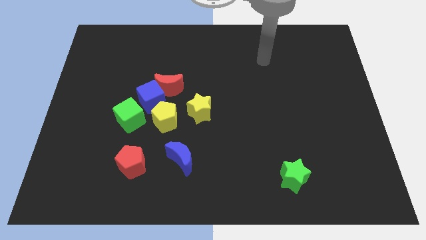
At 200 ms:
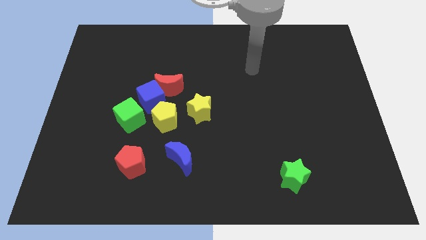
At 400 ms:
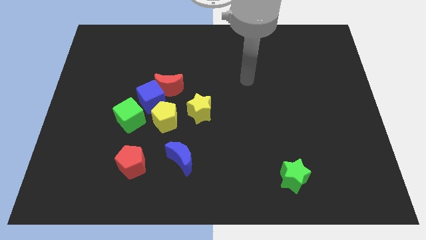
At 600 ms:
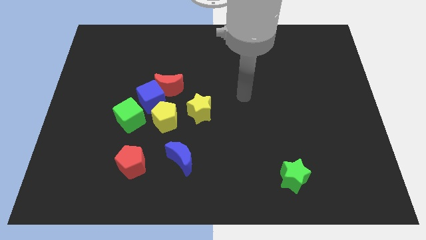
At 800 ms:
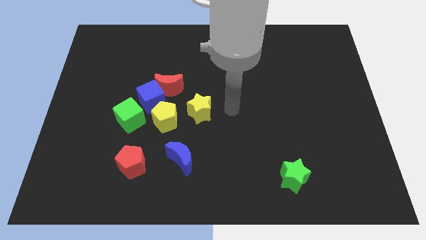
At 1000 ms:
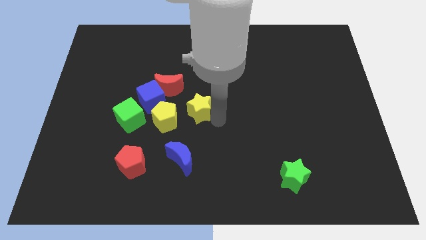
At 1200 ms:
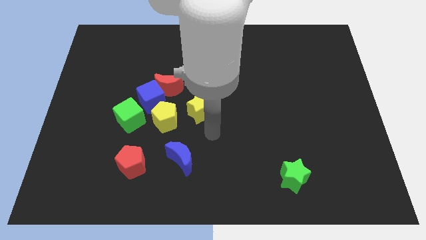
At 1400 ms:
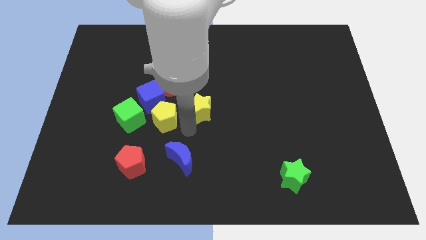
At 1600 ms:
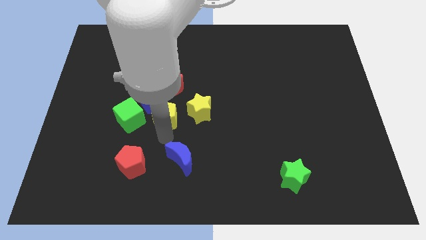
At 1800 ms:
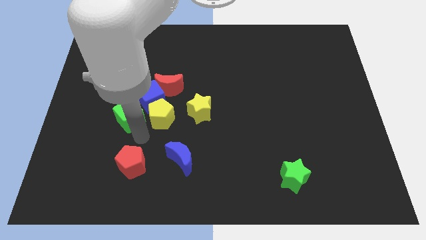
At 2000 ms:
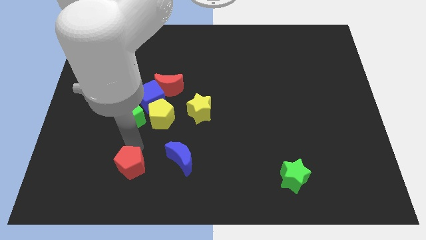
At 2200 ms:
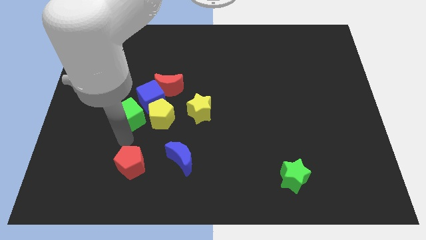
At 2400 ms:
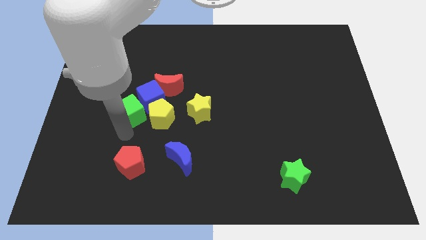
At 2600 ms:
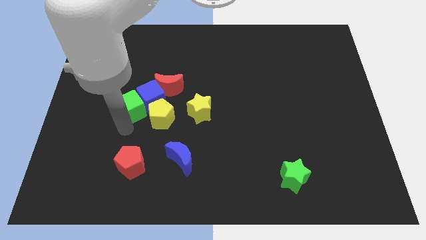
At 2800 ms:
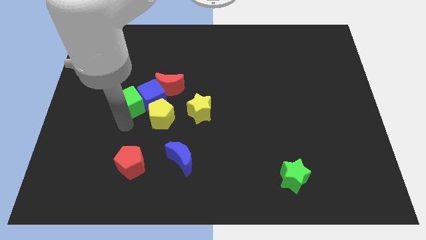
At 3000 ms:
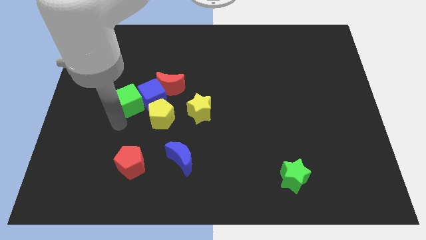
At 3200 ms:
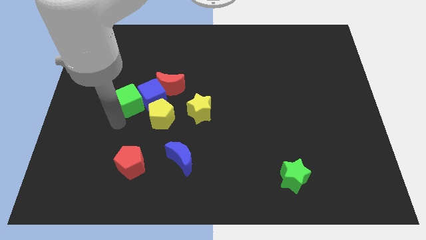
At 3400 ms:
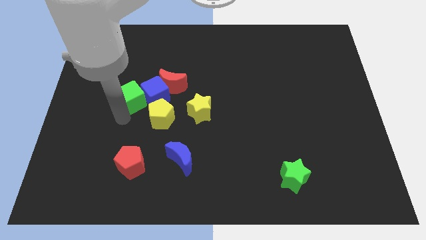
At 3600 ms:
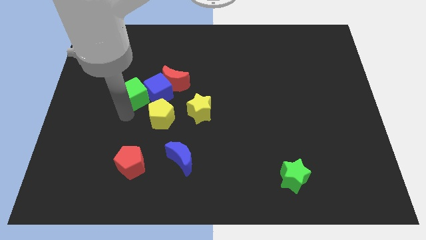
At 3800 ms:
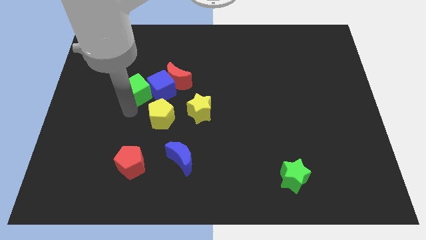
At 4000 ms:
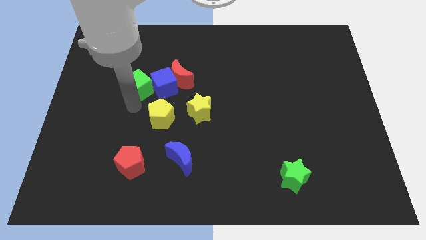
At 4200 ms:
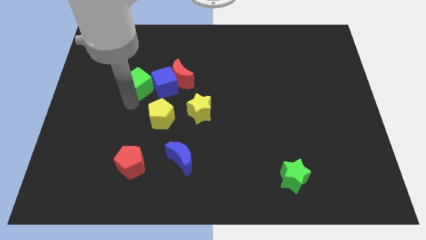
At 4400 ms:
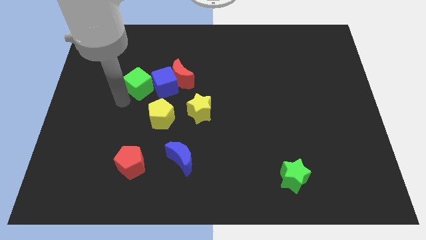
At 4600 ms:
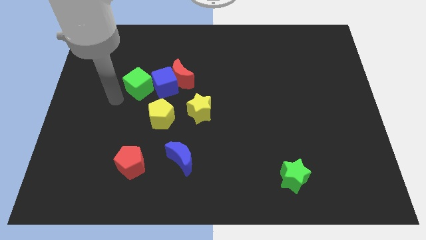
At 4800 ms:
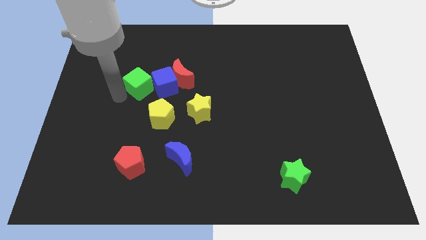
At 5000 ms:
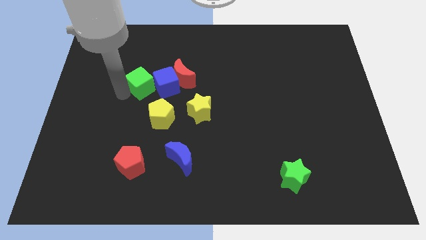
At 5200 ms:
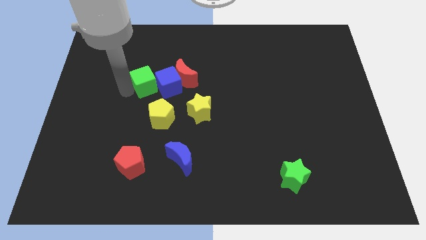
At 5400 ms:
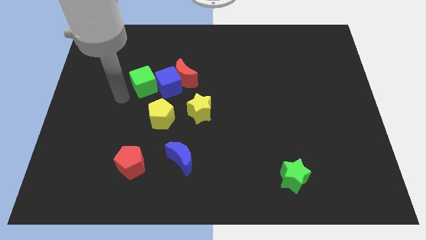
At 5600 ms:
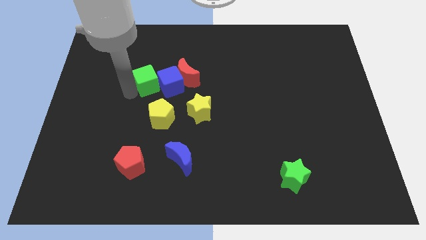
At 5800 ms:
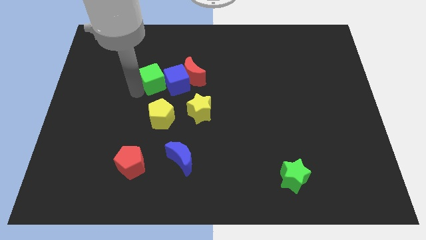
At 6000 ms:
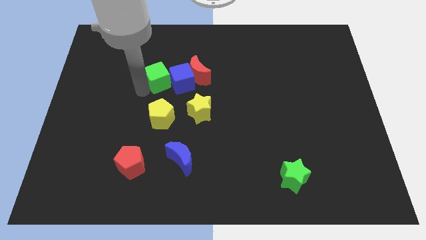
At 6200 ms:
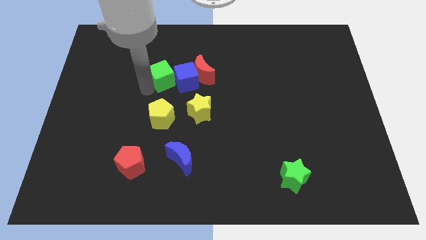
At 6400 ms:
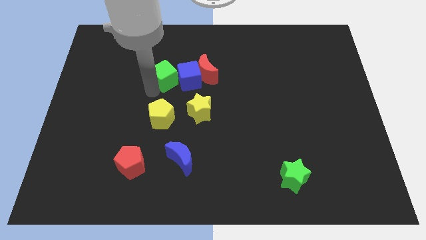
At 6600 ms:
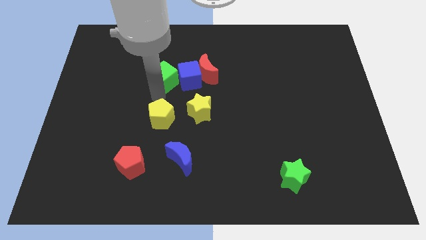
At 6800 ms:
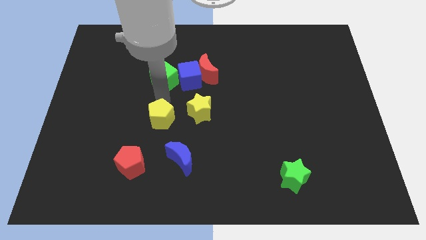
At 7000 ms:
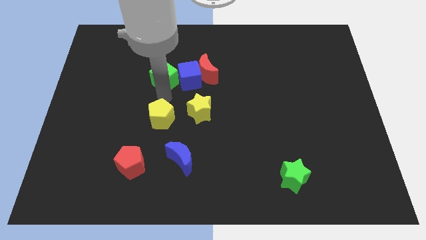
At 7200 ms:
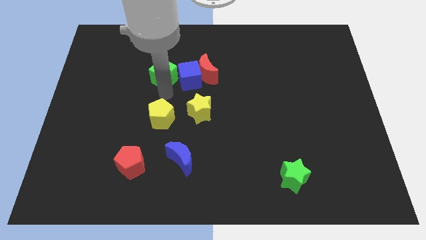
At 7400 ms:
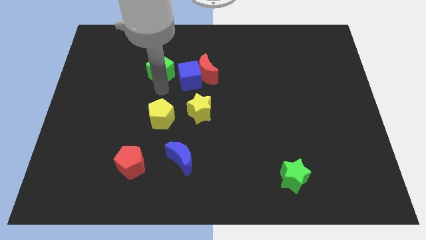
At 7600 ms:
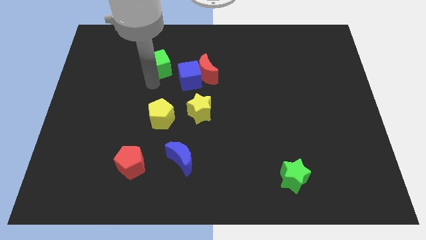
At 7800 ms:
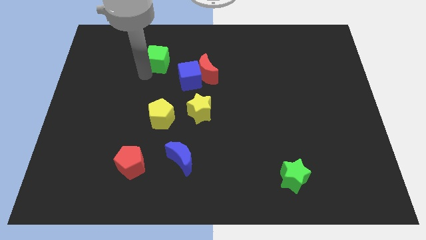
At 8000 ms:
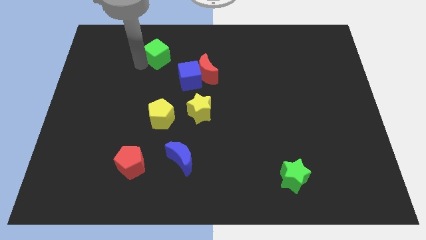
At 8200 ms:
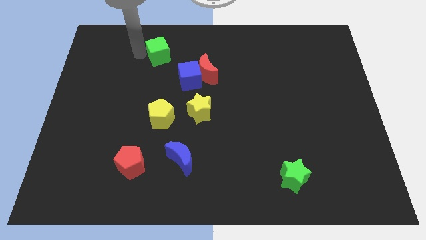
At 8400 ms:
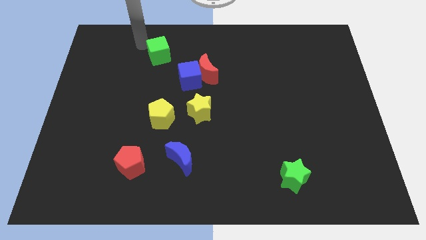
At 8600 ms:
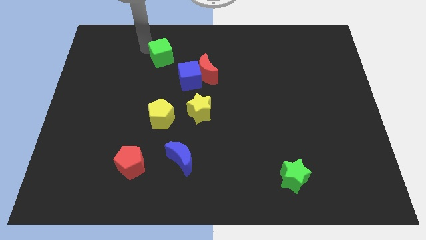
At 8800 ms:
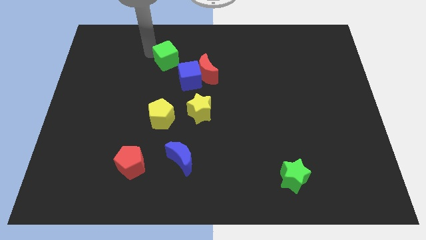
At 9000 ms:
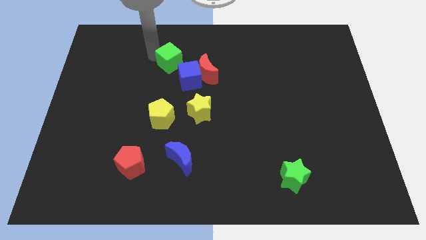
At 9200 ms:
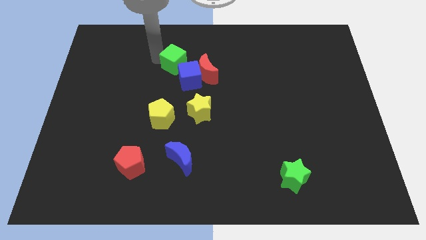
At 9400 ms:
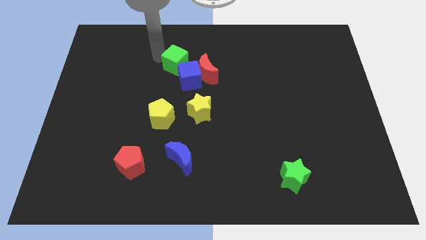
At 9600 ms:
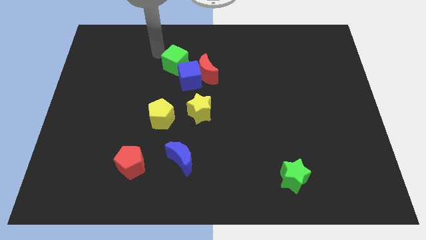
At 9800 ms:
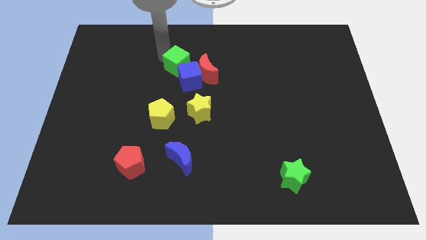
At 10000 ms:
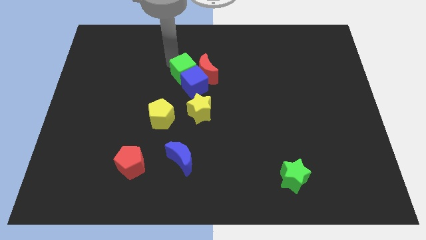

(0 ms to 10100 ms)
put the green cube to the top side of the yellow star

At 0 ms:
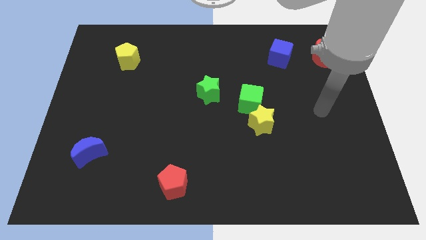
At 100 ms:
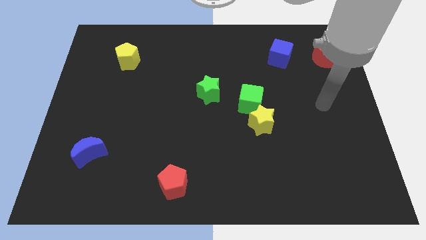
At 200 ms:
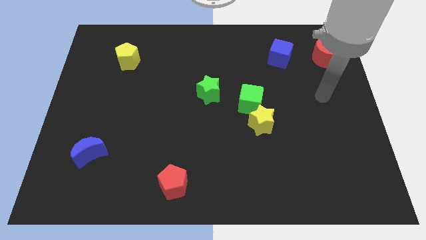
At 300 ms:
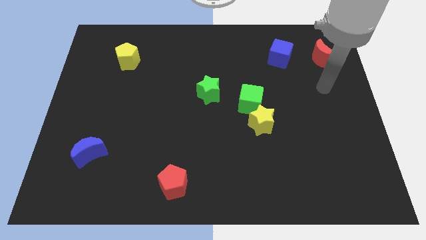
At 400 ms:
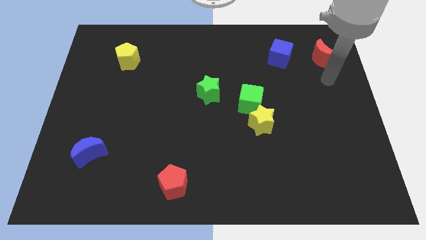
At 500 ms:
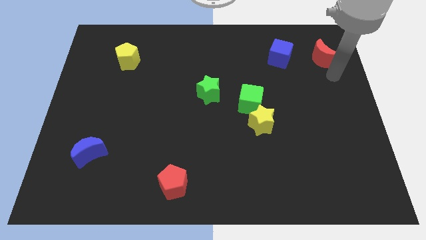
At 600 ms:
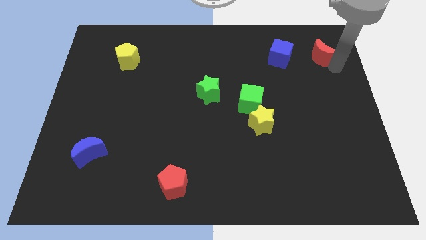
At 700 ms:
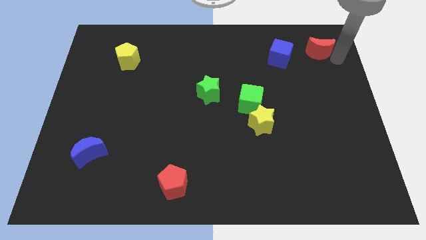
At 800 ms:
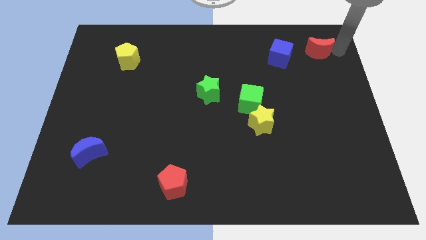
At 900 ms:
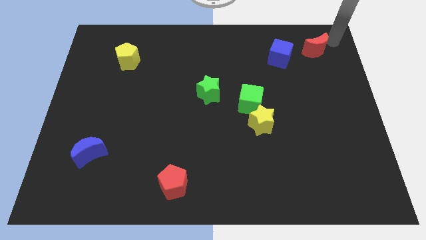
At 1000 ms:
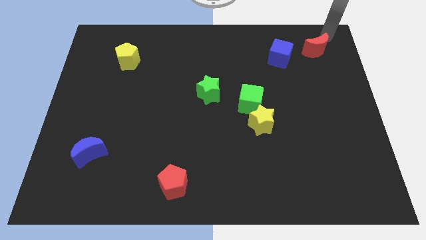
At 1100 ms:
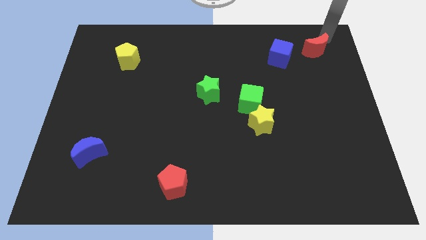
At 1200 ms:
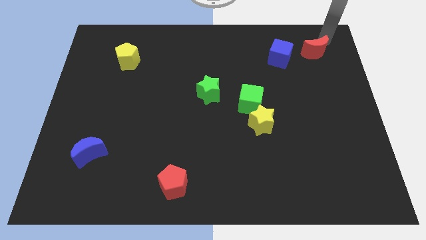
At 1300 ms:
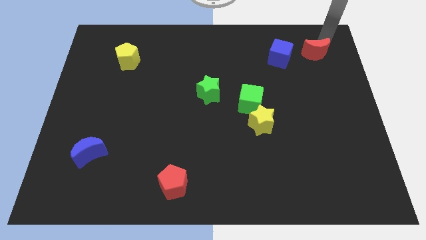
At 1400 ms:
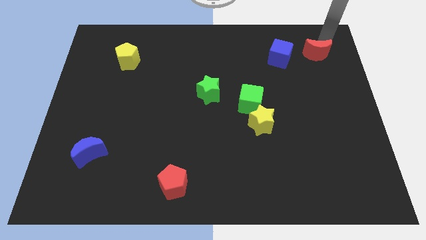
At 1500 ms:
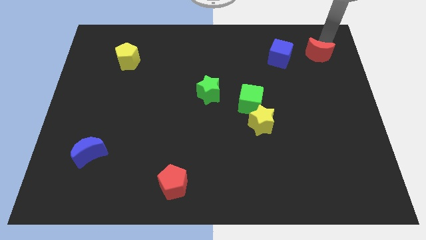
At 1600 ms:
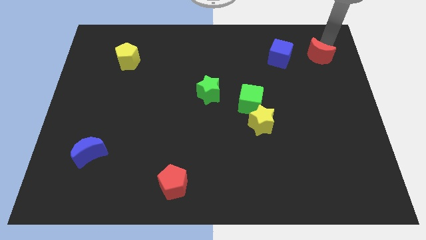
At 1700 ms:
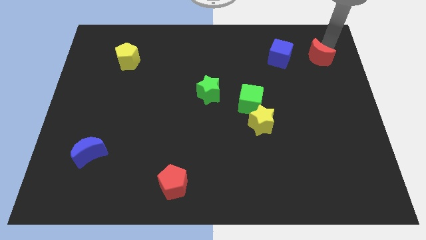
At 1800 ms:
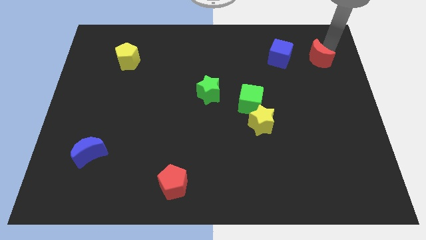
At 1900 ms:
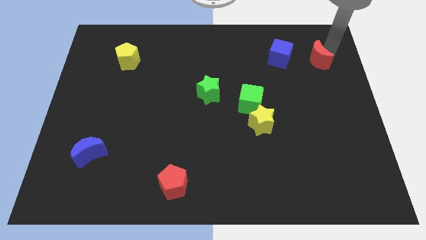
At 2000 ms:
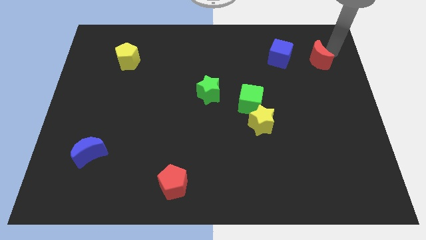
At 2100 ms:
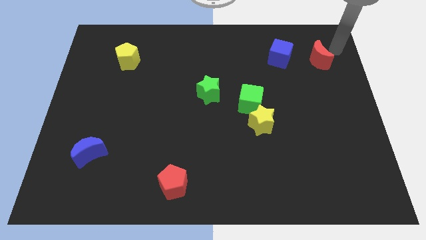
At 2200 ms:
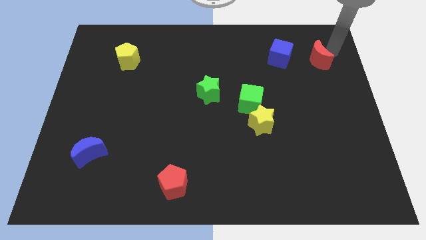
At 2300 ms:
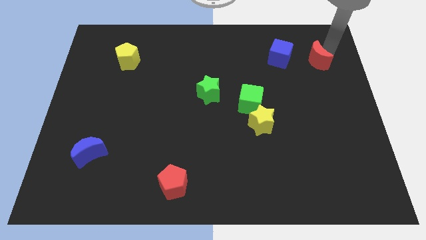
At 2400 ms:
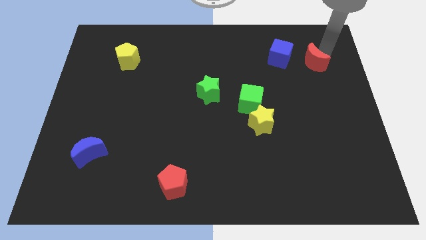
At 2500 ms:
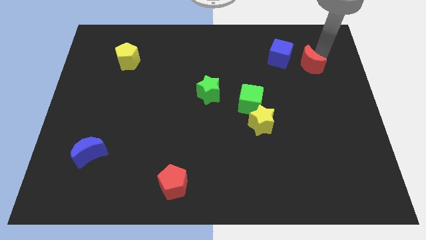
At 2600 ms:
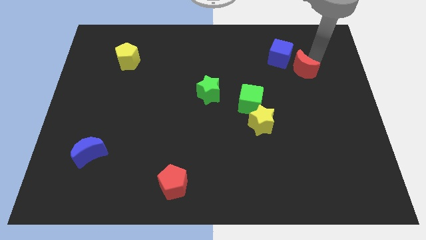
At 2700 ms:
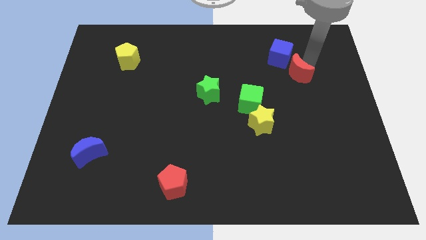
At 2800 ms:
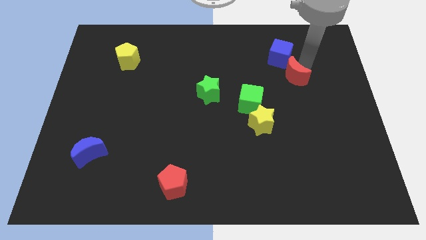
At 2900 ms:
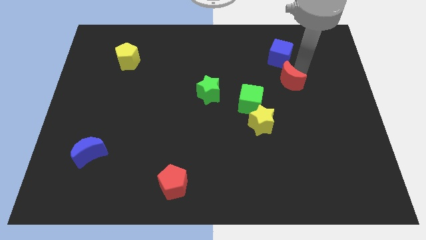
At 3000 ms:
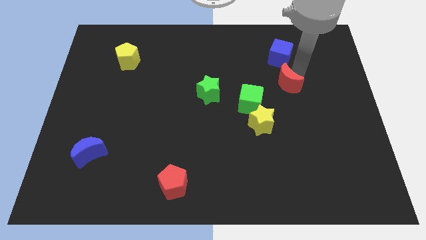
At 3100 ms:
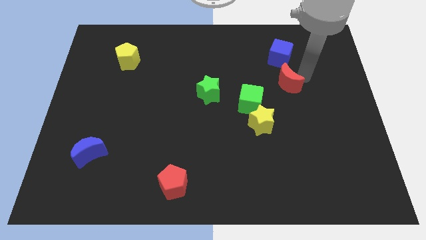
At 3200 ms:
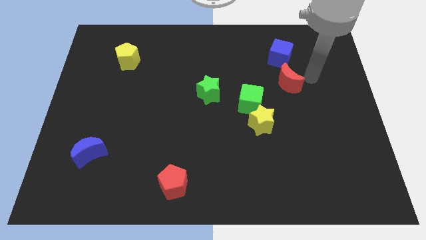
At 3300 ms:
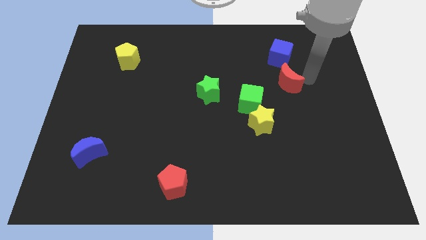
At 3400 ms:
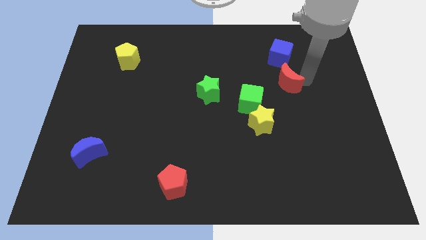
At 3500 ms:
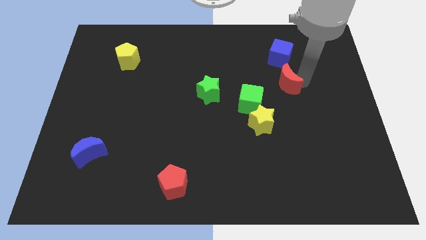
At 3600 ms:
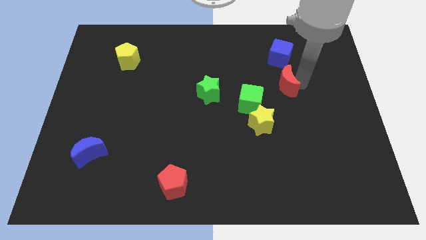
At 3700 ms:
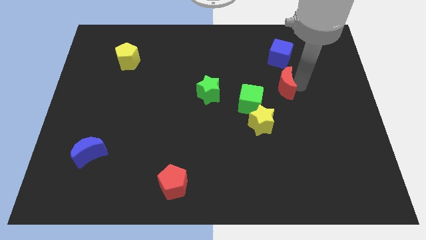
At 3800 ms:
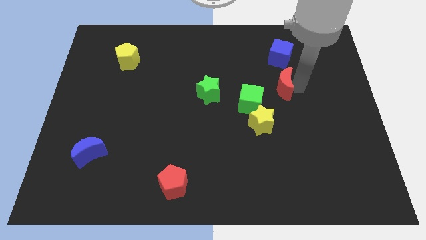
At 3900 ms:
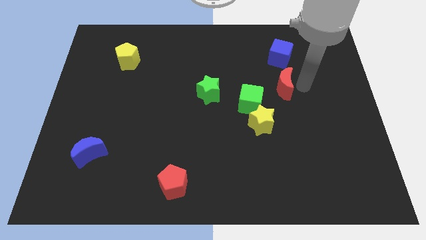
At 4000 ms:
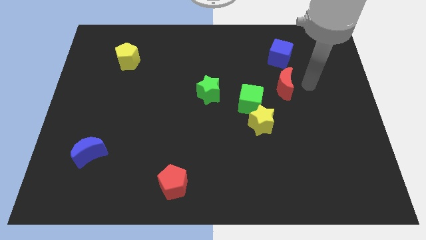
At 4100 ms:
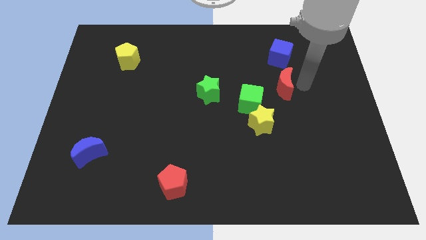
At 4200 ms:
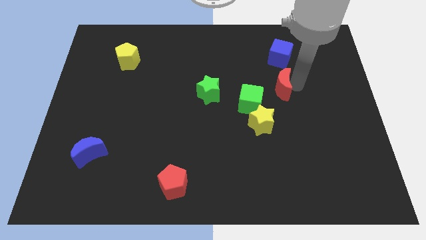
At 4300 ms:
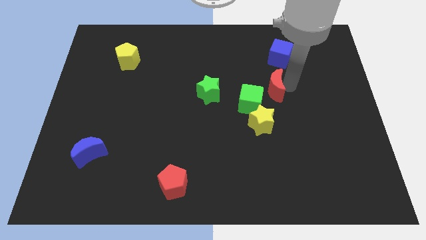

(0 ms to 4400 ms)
slide the red moon to the top side of the yellow star
